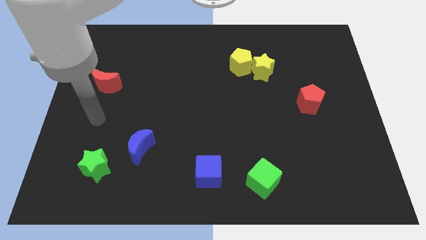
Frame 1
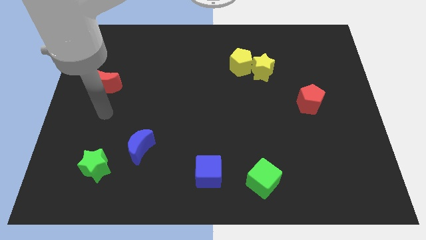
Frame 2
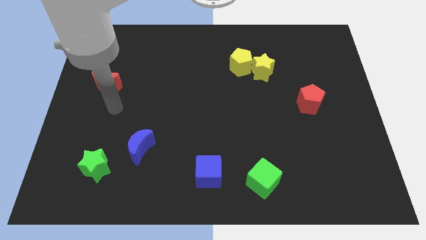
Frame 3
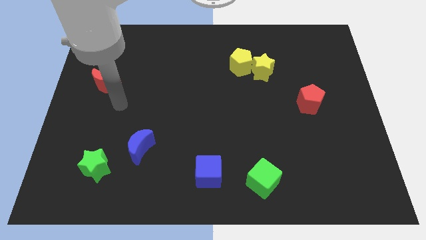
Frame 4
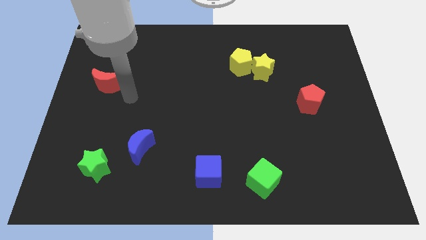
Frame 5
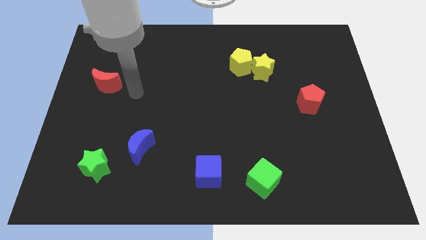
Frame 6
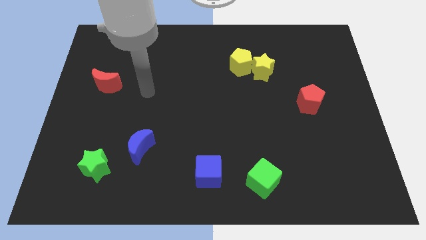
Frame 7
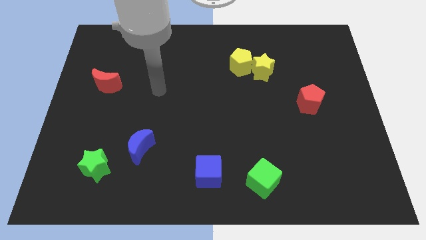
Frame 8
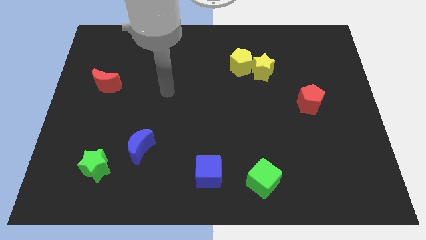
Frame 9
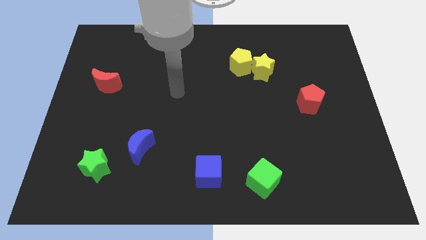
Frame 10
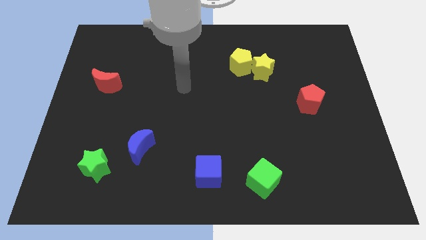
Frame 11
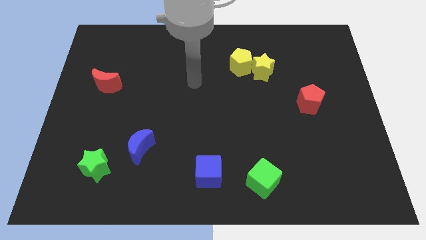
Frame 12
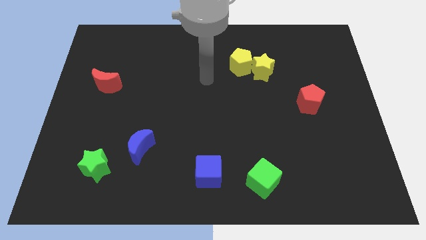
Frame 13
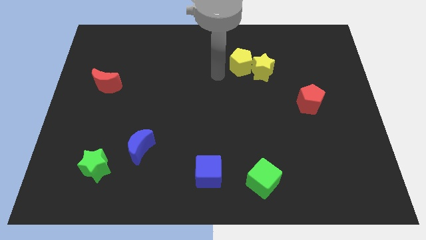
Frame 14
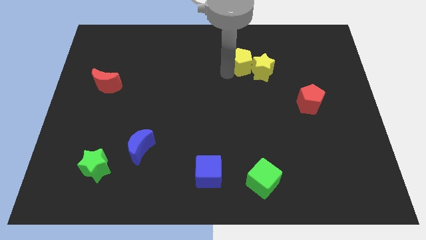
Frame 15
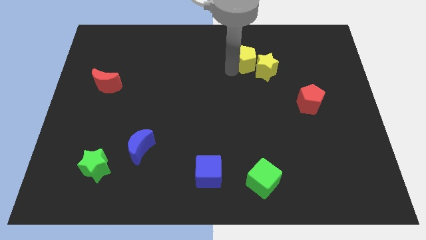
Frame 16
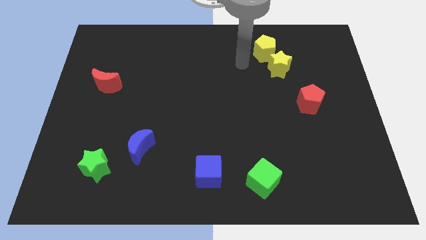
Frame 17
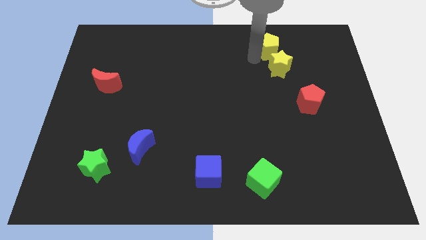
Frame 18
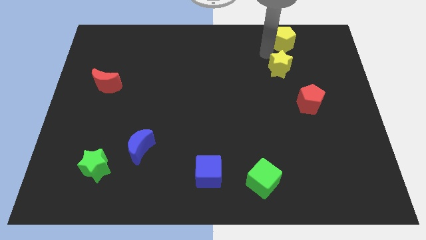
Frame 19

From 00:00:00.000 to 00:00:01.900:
pull the yellow star apart from the yellow pentagon

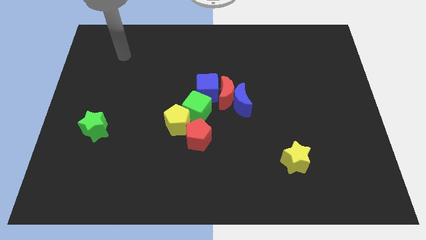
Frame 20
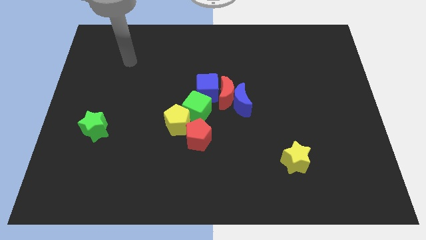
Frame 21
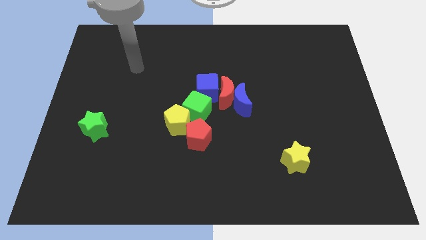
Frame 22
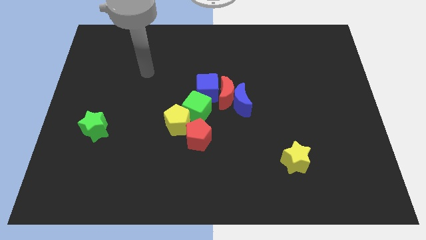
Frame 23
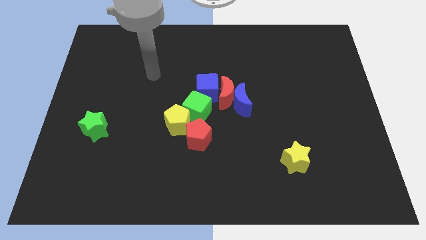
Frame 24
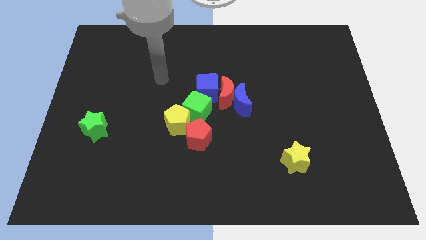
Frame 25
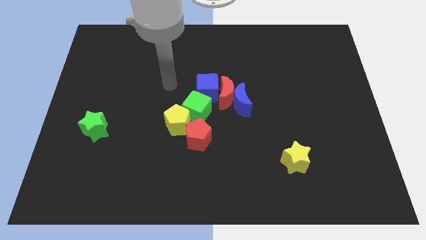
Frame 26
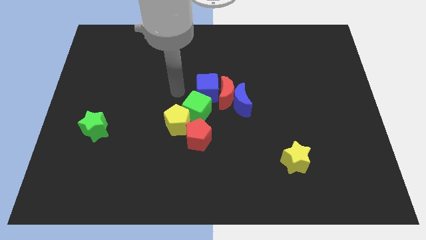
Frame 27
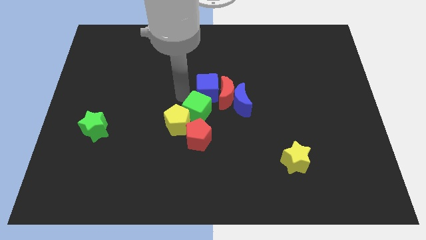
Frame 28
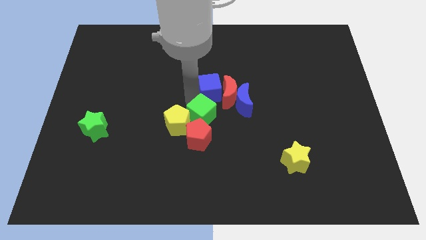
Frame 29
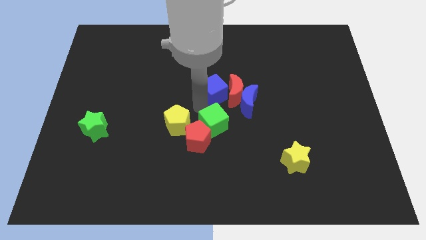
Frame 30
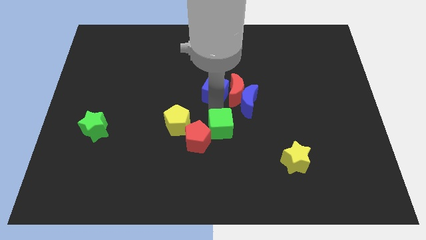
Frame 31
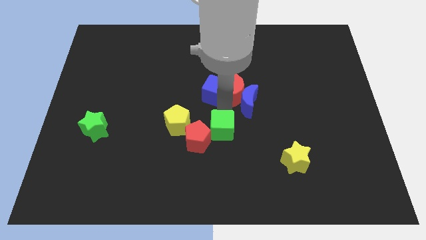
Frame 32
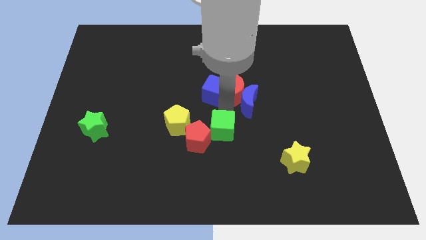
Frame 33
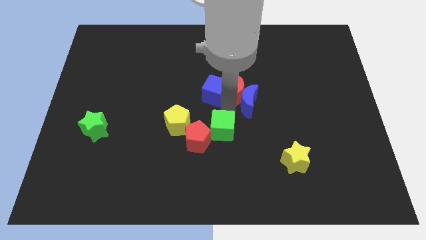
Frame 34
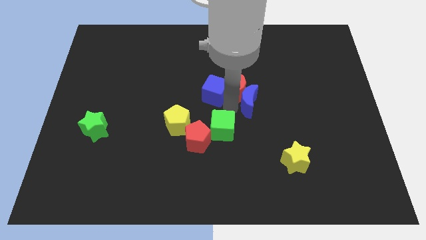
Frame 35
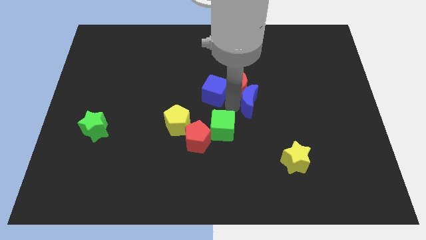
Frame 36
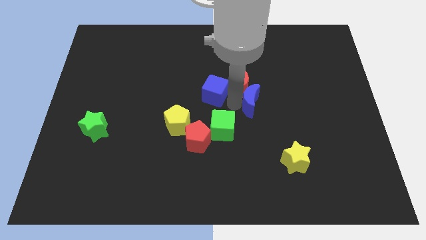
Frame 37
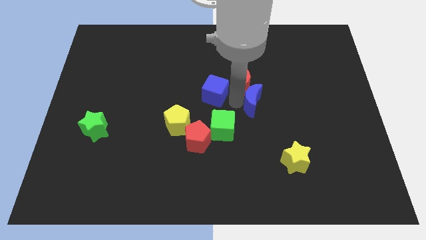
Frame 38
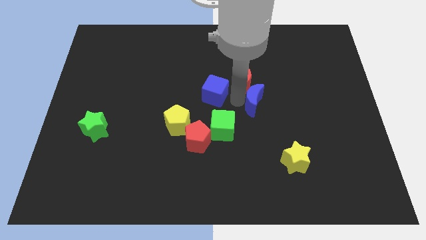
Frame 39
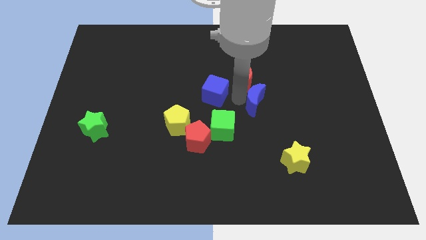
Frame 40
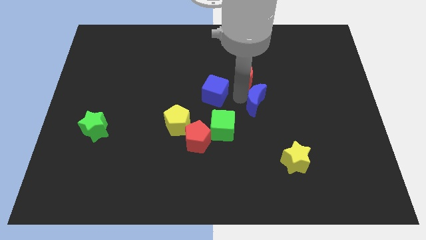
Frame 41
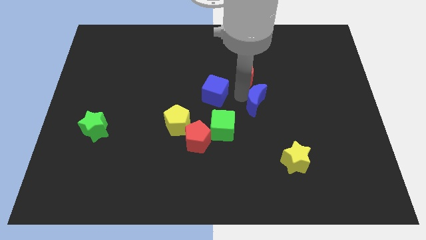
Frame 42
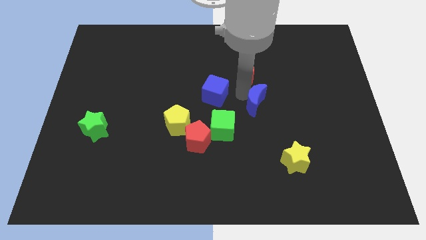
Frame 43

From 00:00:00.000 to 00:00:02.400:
pull the red moon apart from the group

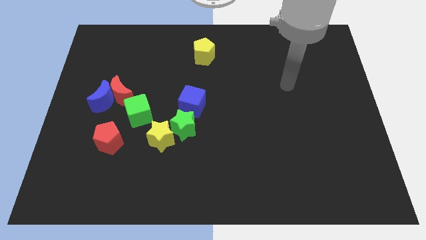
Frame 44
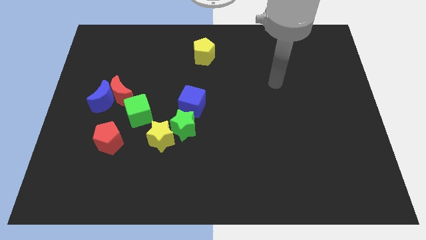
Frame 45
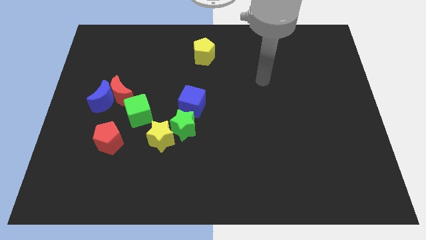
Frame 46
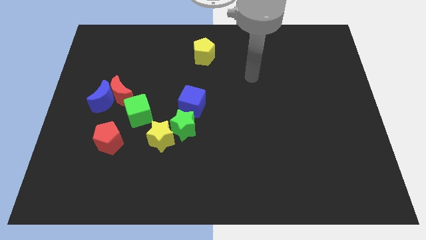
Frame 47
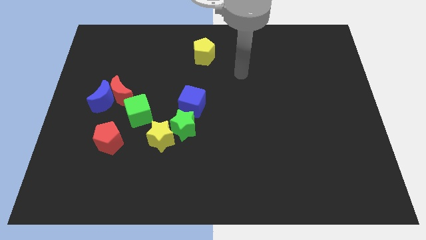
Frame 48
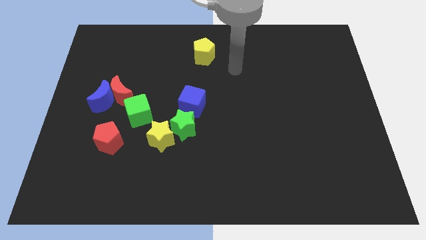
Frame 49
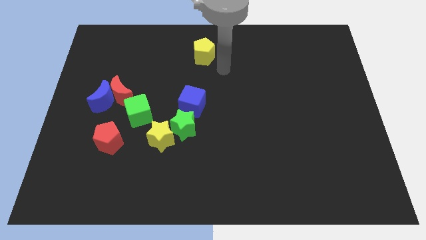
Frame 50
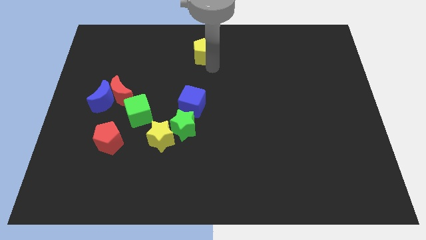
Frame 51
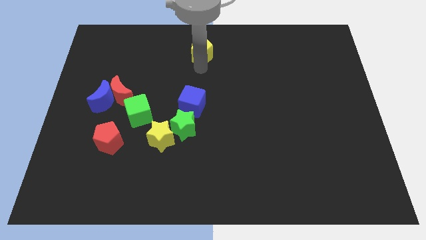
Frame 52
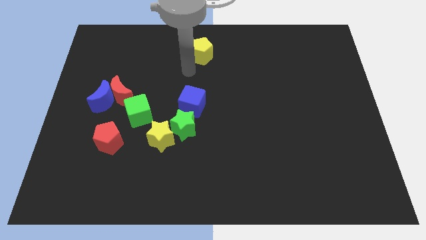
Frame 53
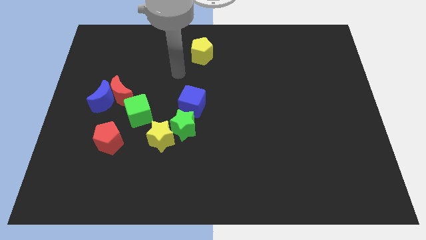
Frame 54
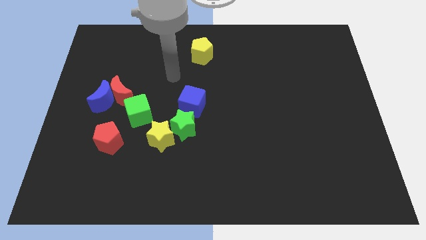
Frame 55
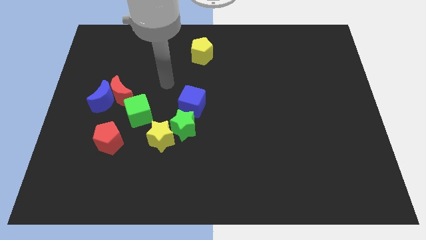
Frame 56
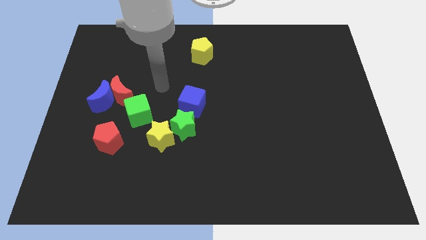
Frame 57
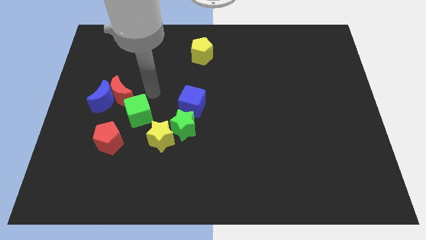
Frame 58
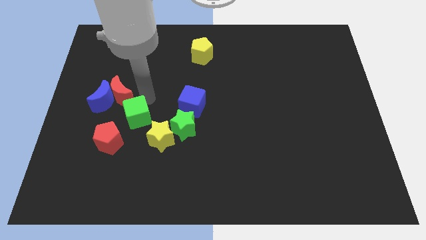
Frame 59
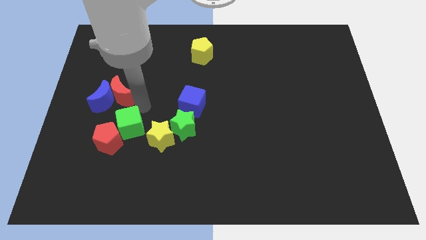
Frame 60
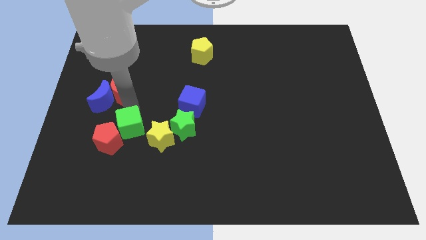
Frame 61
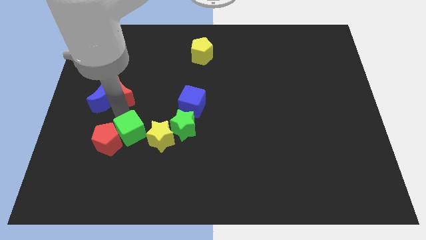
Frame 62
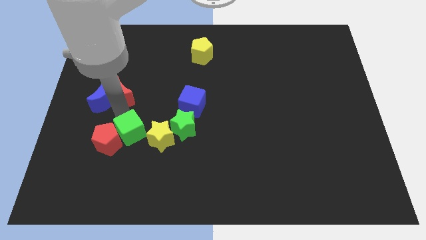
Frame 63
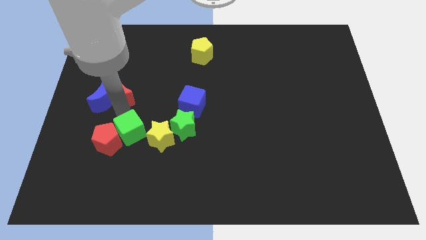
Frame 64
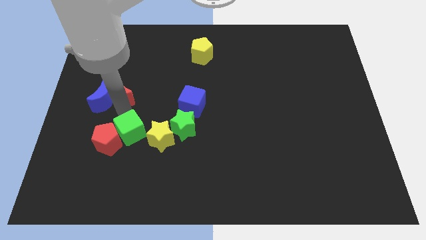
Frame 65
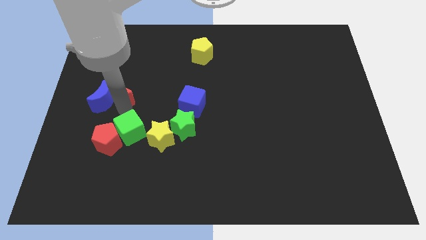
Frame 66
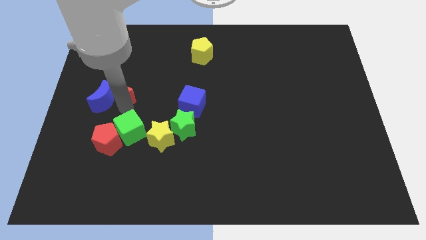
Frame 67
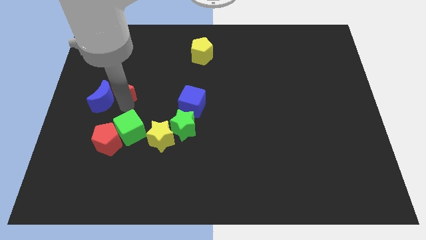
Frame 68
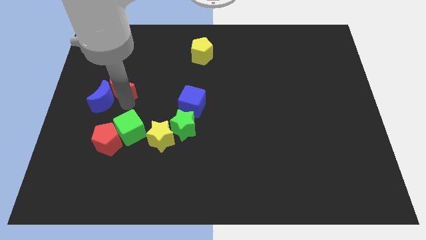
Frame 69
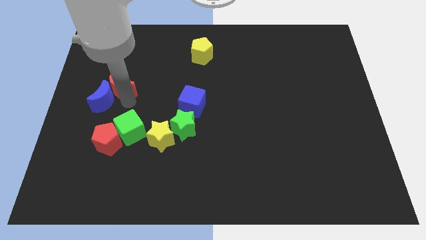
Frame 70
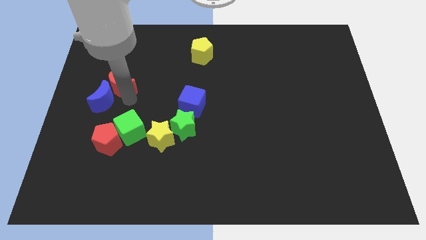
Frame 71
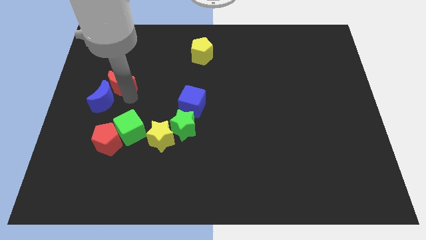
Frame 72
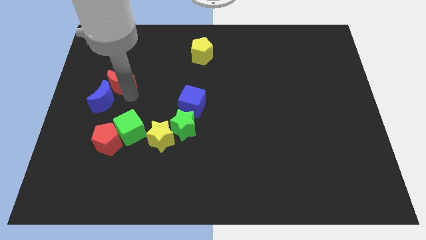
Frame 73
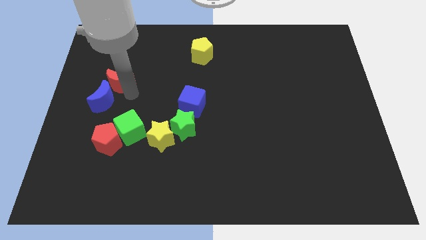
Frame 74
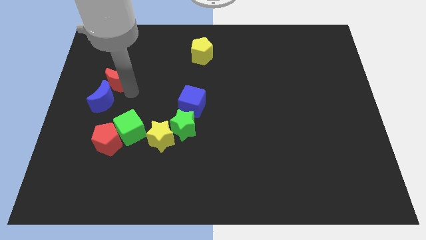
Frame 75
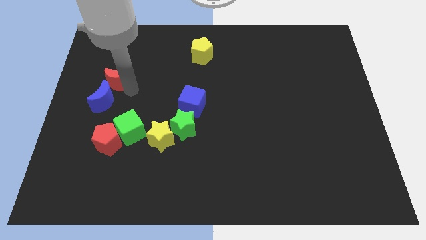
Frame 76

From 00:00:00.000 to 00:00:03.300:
move the red moon away from the blue moon and green cube

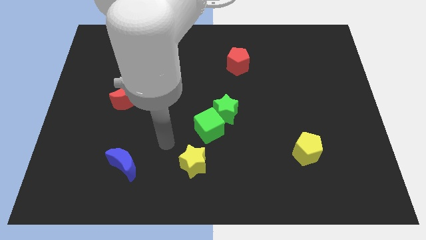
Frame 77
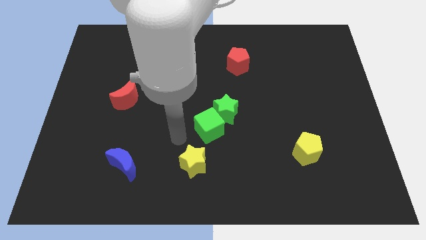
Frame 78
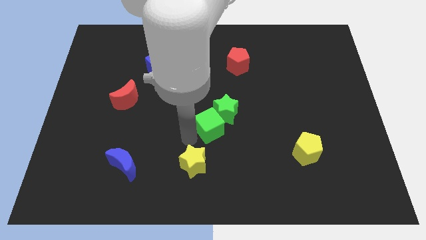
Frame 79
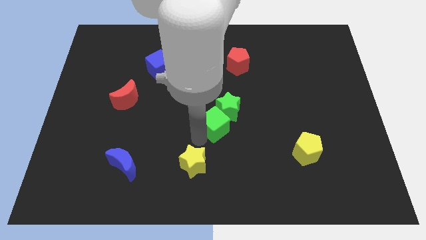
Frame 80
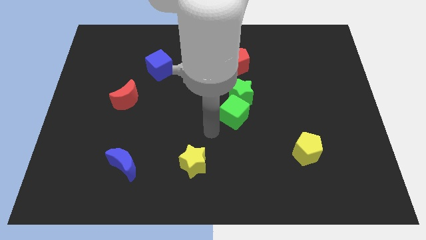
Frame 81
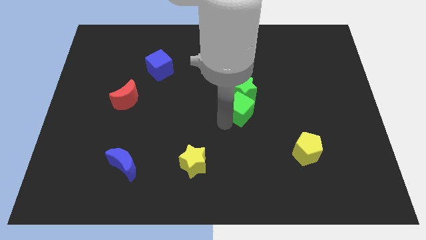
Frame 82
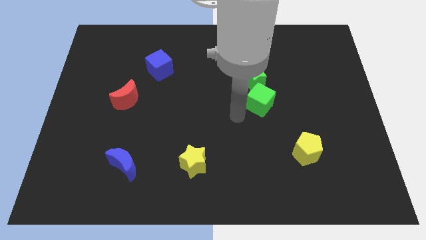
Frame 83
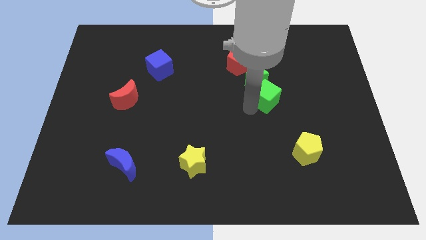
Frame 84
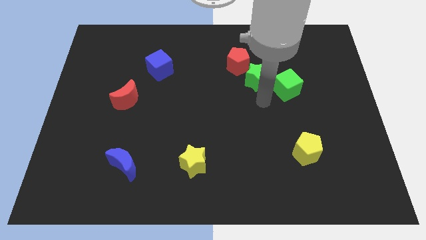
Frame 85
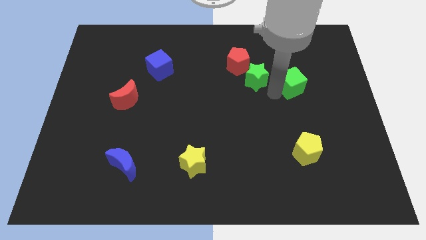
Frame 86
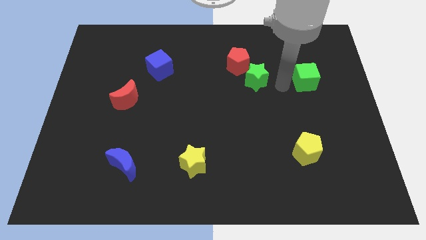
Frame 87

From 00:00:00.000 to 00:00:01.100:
pull the green star apart from the green cube

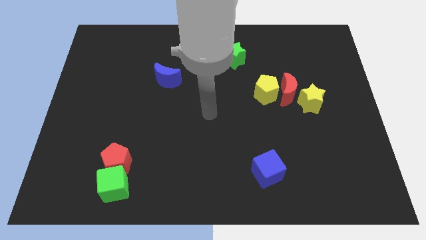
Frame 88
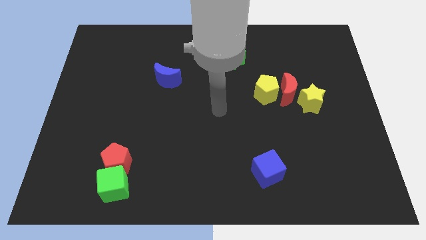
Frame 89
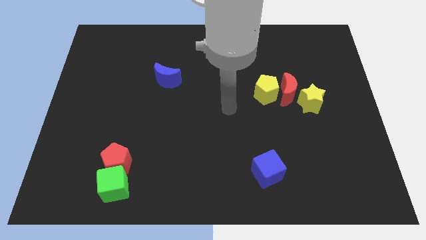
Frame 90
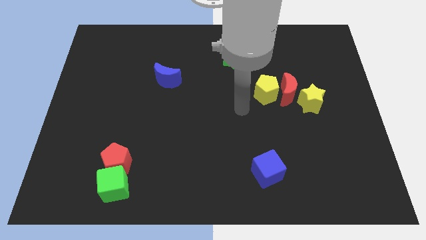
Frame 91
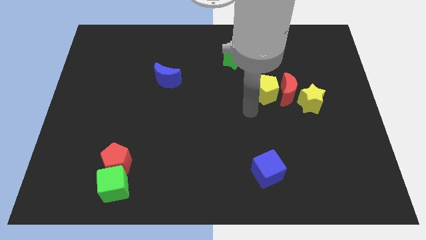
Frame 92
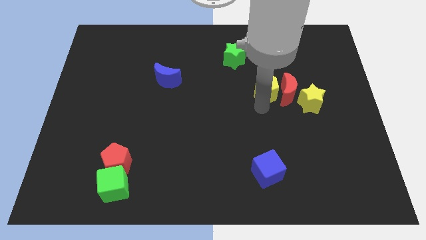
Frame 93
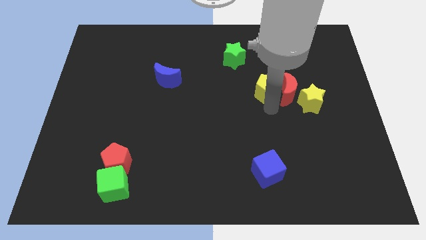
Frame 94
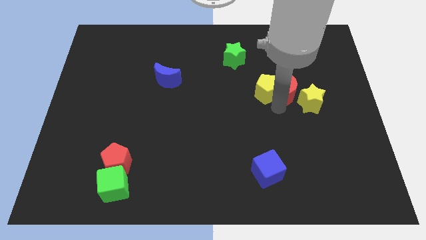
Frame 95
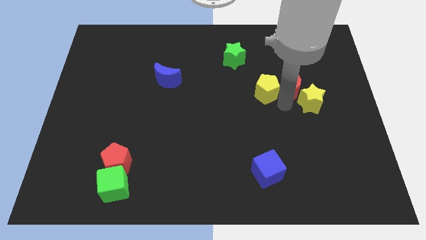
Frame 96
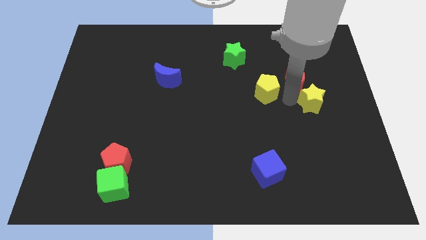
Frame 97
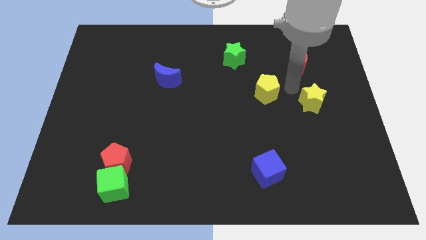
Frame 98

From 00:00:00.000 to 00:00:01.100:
move the yellow pentagon away from the red moon
